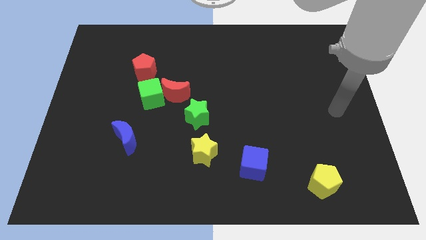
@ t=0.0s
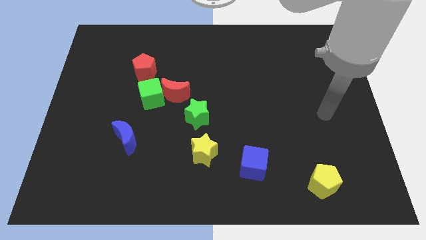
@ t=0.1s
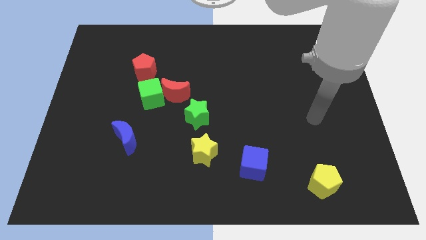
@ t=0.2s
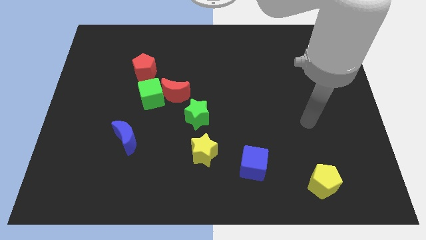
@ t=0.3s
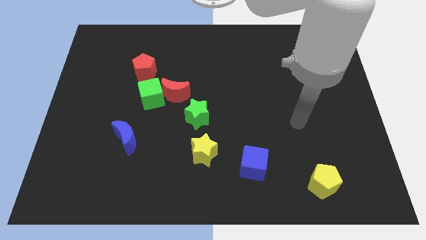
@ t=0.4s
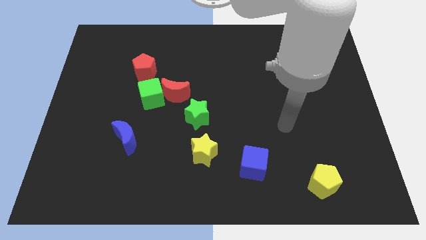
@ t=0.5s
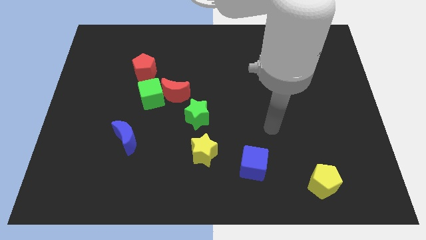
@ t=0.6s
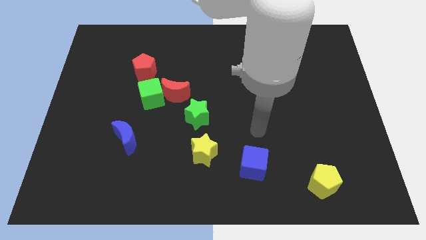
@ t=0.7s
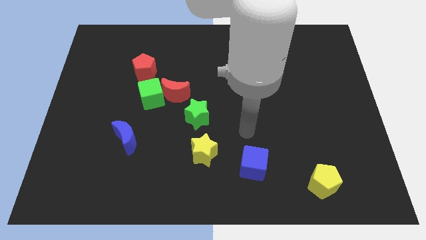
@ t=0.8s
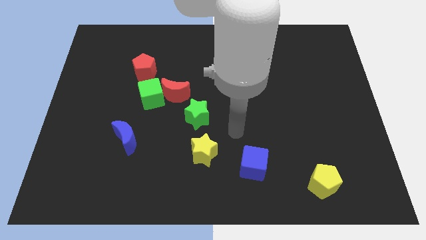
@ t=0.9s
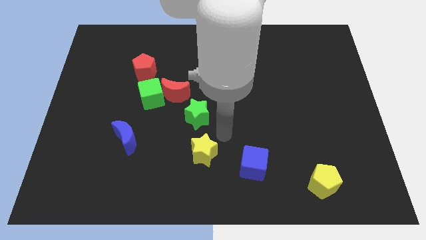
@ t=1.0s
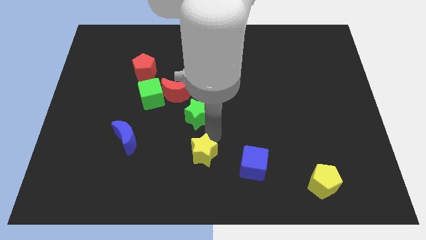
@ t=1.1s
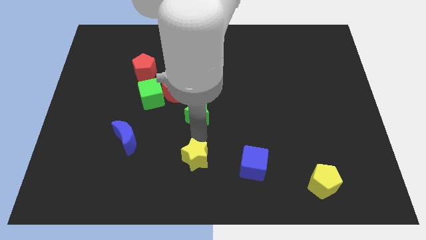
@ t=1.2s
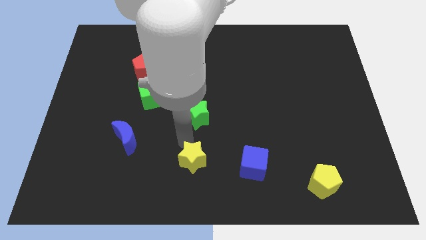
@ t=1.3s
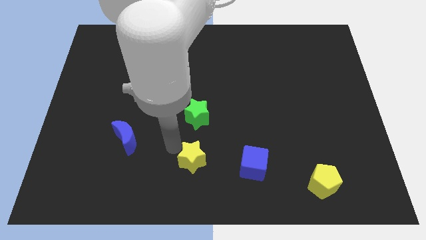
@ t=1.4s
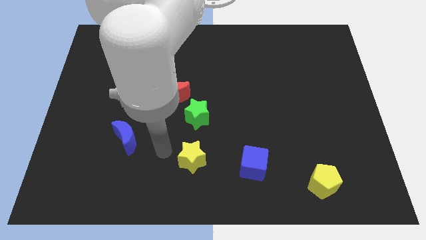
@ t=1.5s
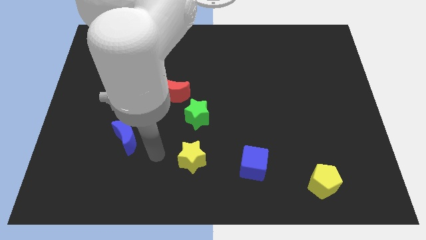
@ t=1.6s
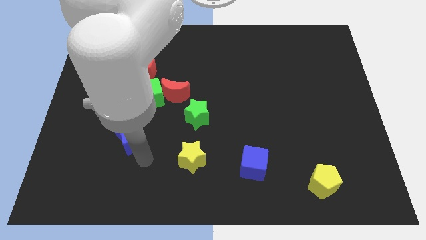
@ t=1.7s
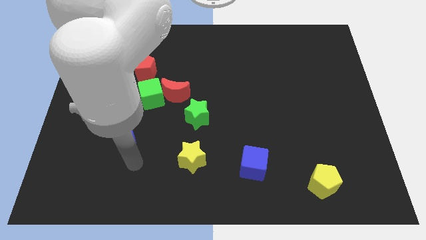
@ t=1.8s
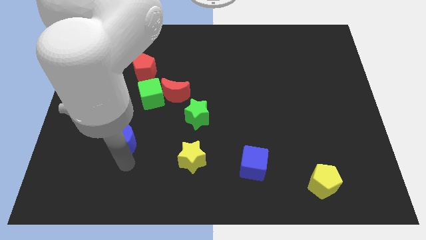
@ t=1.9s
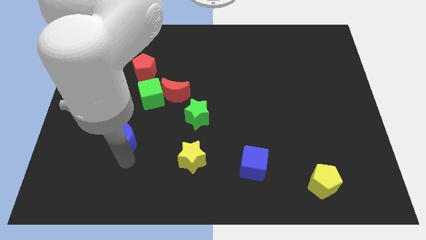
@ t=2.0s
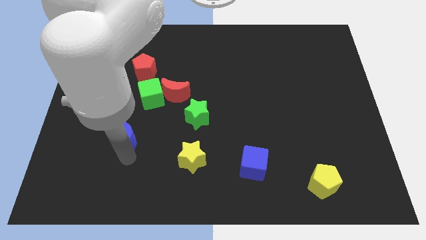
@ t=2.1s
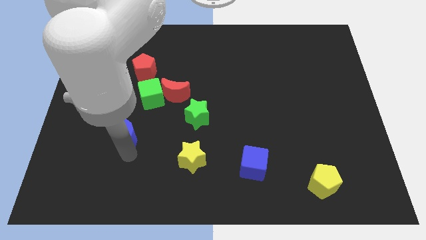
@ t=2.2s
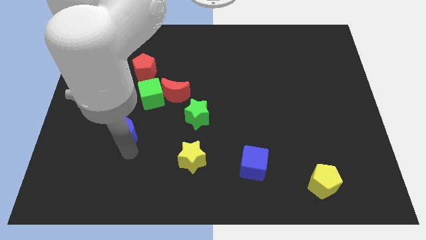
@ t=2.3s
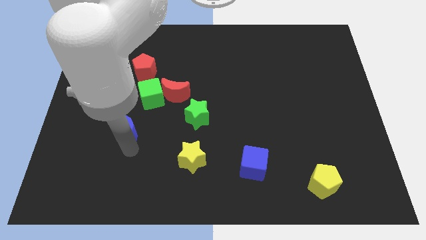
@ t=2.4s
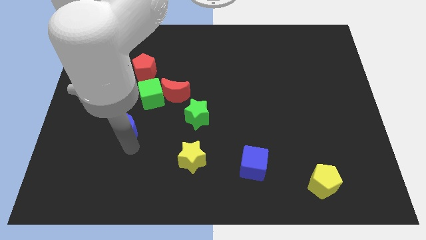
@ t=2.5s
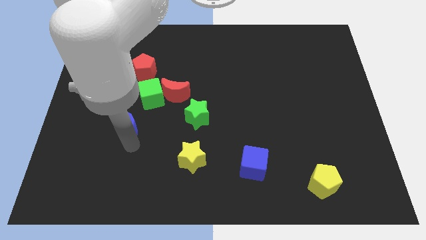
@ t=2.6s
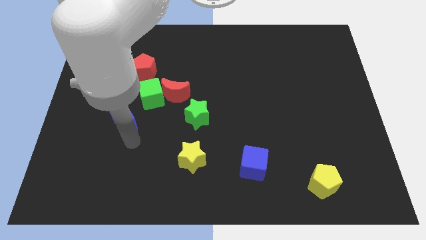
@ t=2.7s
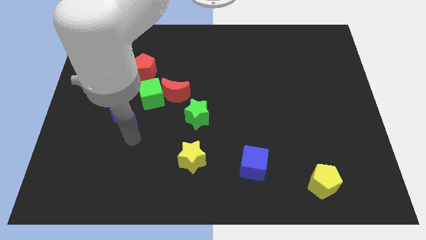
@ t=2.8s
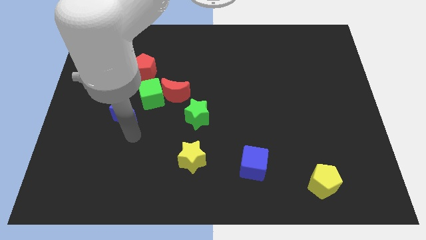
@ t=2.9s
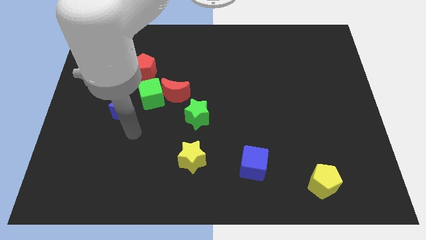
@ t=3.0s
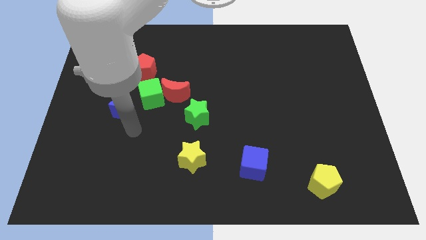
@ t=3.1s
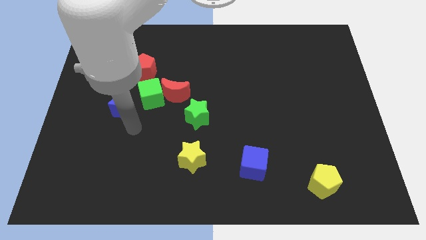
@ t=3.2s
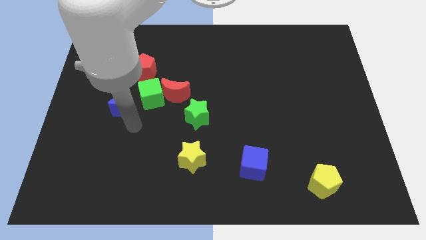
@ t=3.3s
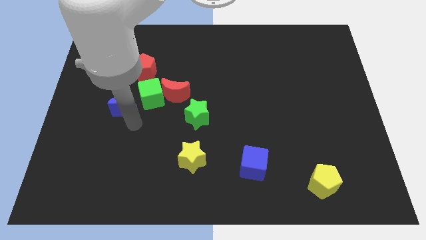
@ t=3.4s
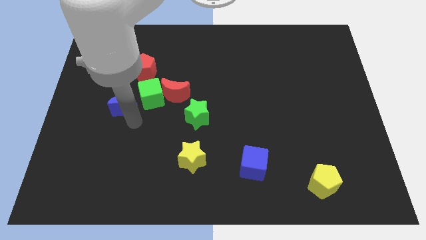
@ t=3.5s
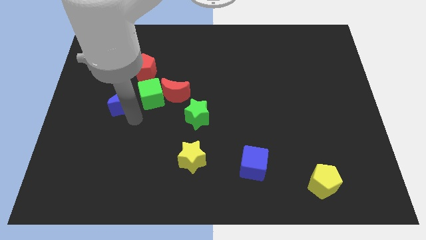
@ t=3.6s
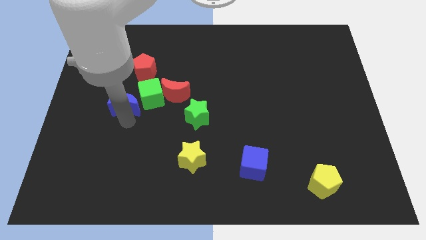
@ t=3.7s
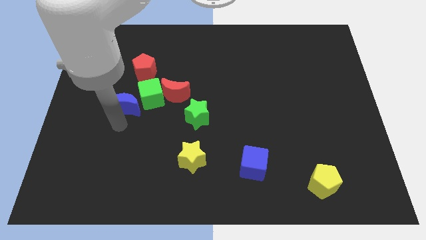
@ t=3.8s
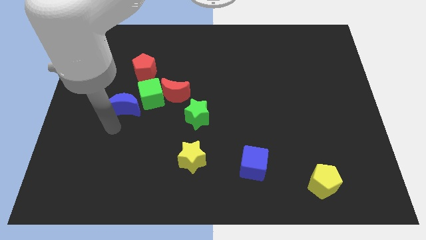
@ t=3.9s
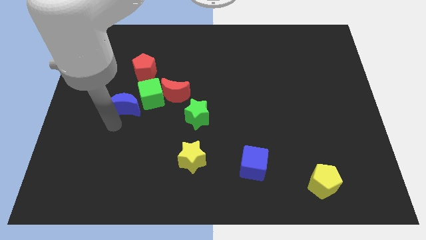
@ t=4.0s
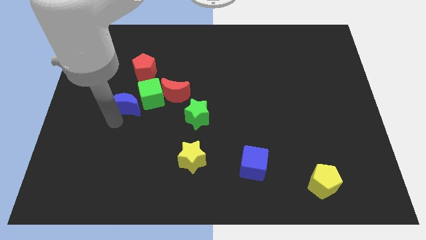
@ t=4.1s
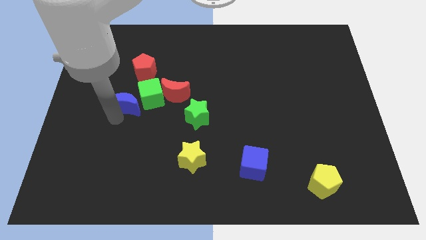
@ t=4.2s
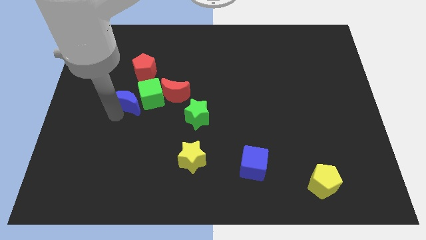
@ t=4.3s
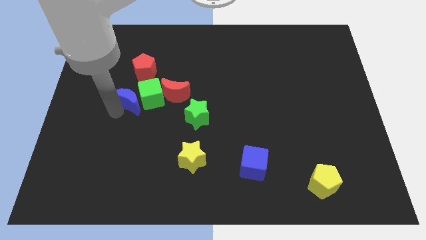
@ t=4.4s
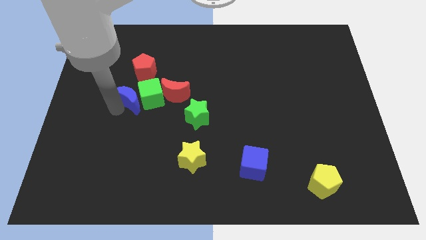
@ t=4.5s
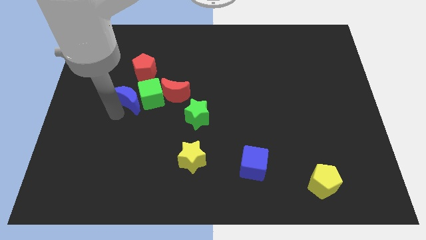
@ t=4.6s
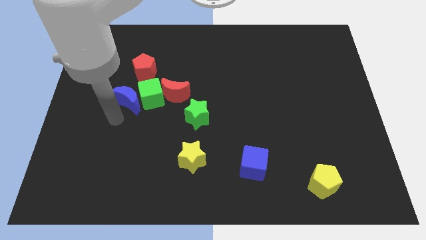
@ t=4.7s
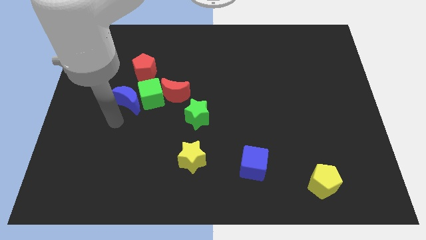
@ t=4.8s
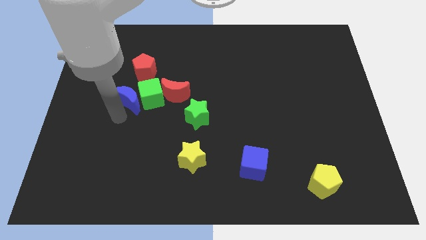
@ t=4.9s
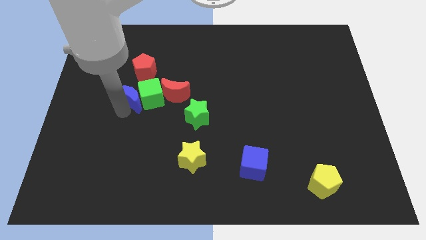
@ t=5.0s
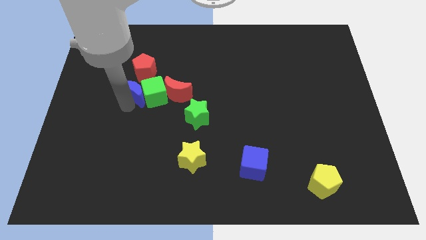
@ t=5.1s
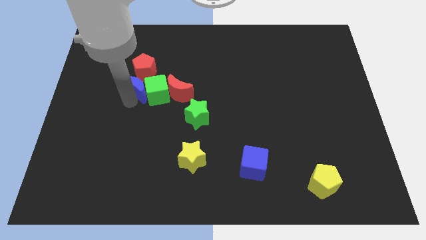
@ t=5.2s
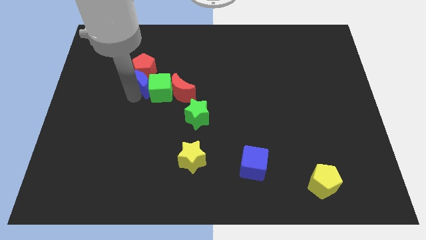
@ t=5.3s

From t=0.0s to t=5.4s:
push the blue moon towards the red pentagon

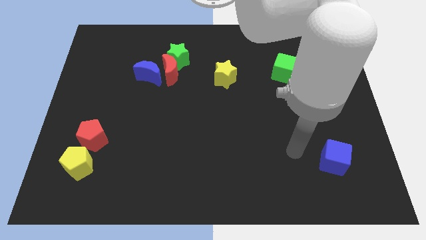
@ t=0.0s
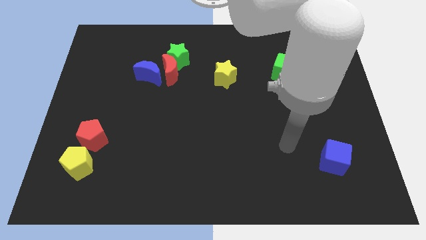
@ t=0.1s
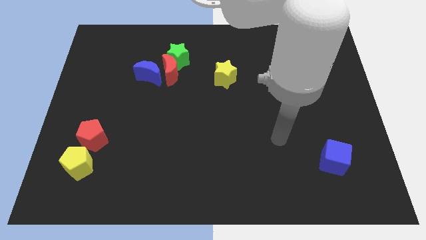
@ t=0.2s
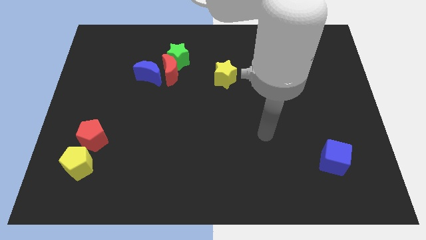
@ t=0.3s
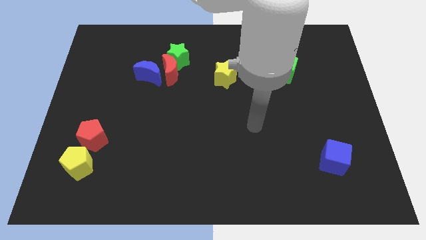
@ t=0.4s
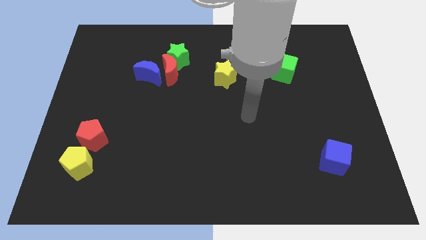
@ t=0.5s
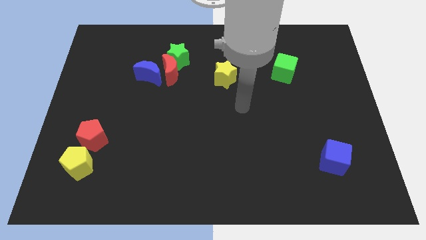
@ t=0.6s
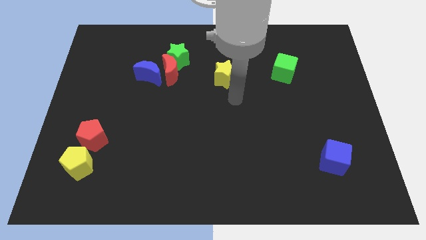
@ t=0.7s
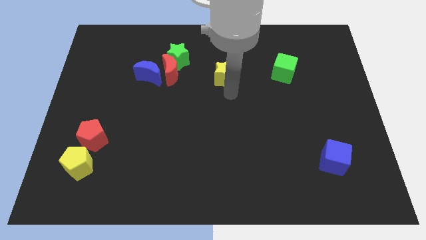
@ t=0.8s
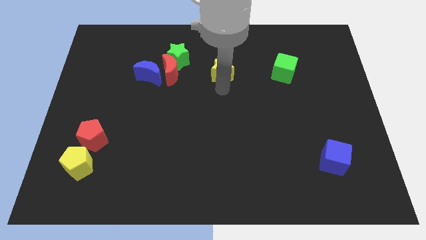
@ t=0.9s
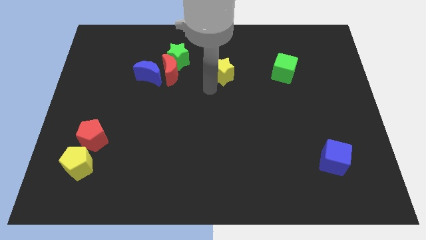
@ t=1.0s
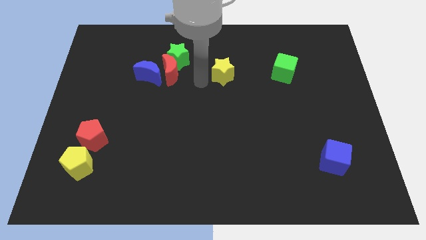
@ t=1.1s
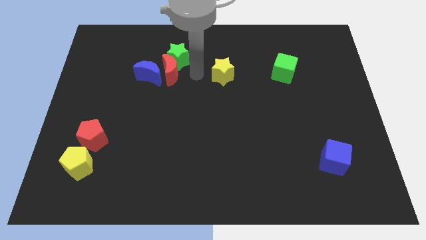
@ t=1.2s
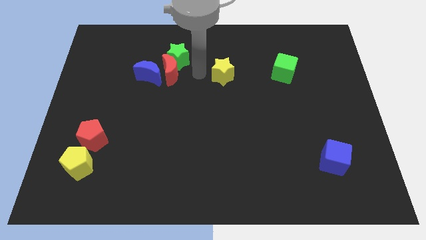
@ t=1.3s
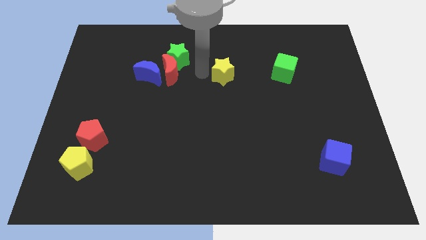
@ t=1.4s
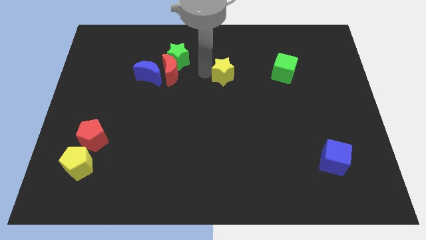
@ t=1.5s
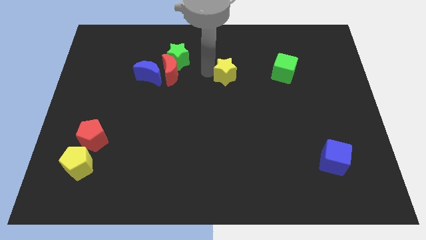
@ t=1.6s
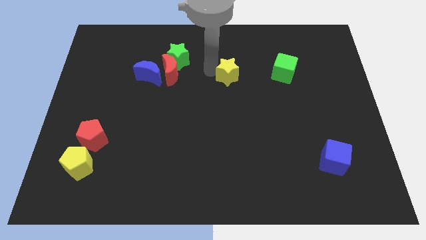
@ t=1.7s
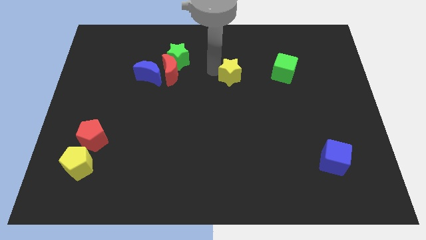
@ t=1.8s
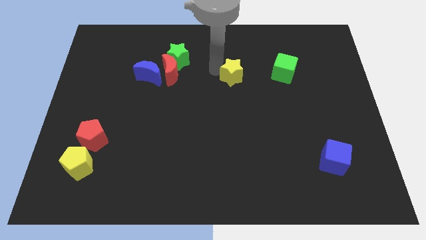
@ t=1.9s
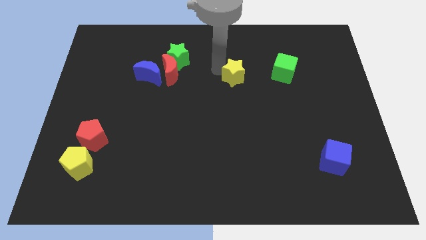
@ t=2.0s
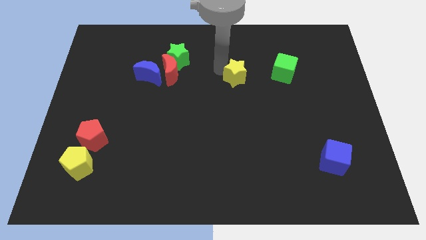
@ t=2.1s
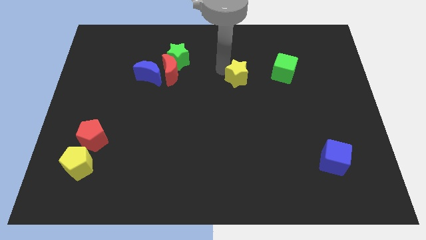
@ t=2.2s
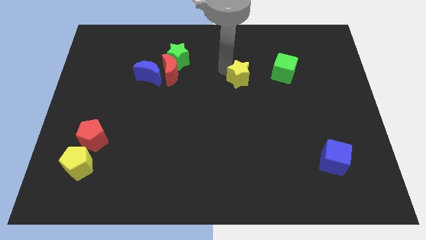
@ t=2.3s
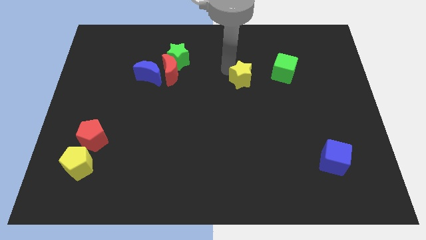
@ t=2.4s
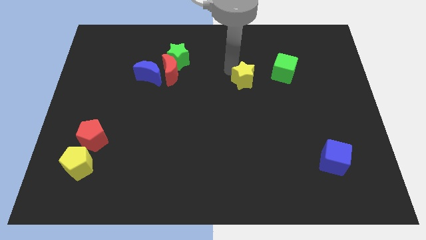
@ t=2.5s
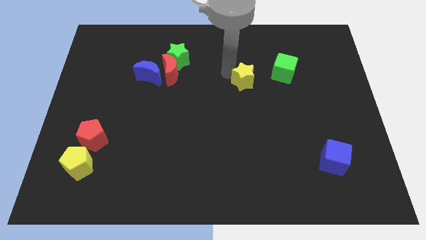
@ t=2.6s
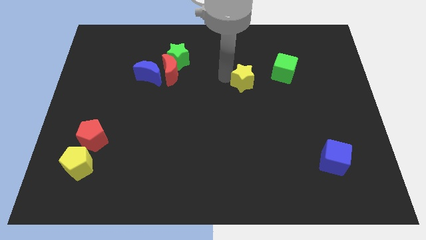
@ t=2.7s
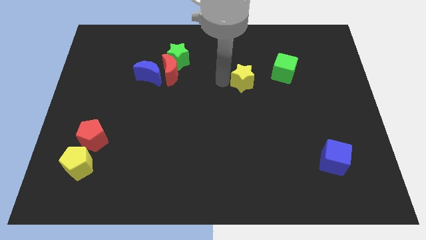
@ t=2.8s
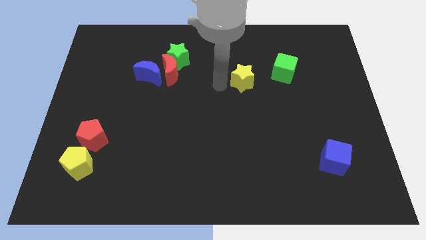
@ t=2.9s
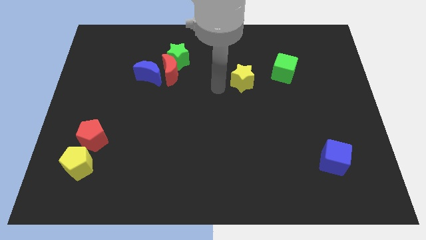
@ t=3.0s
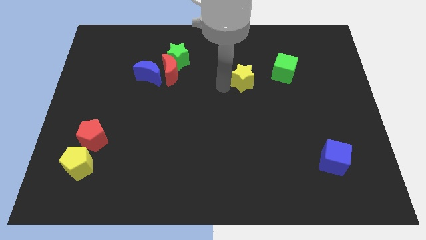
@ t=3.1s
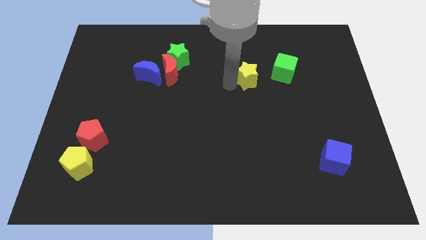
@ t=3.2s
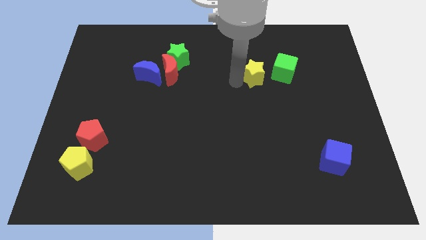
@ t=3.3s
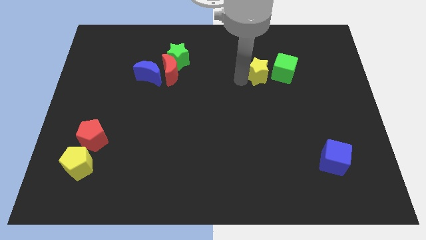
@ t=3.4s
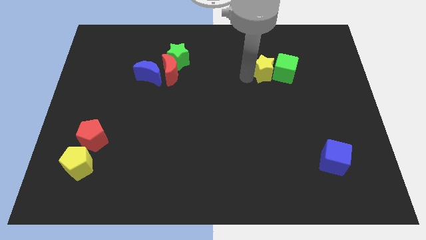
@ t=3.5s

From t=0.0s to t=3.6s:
push the yellow star to the green cube
